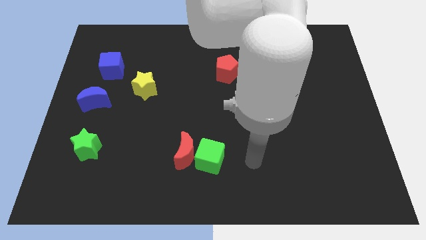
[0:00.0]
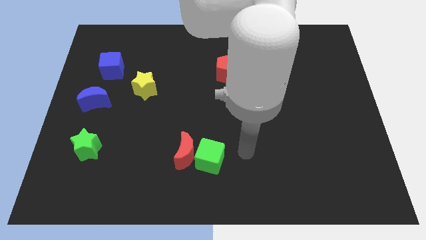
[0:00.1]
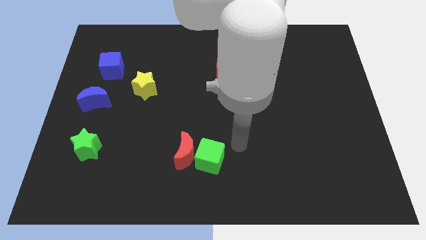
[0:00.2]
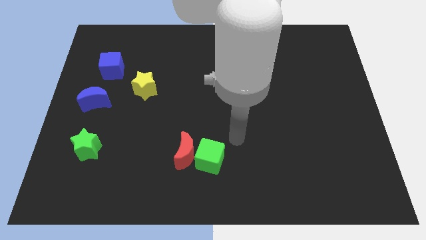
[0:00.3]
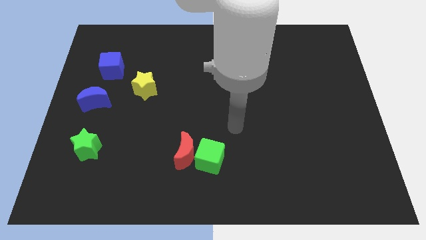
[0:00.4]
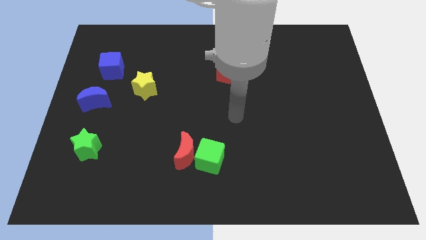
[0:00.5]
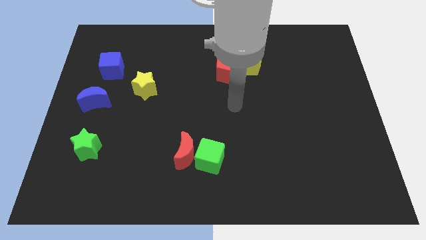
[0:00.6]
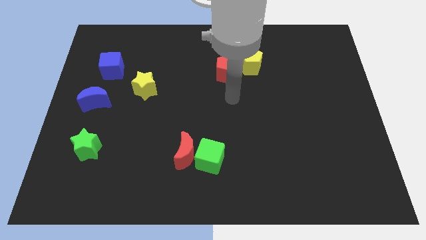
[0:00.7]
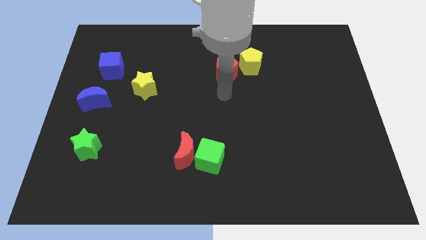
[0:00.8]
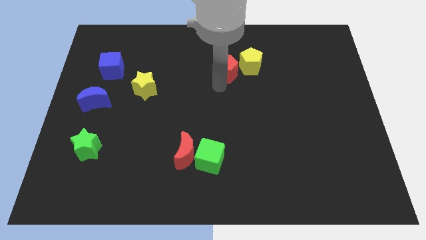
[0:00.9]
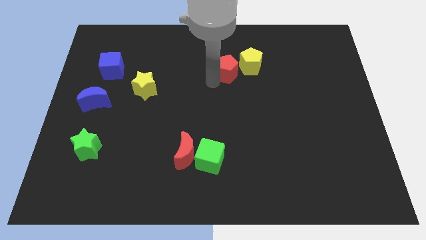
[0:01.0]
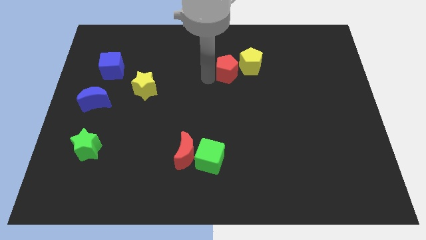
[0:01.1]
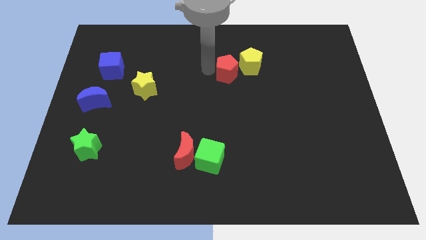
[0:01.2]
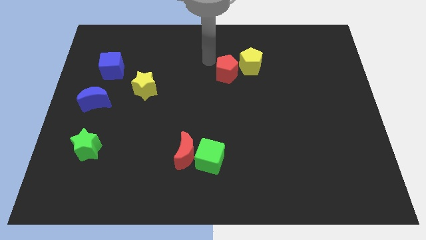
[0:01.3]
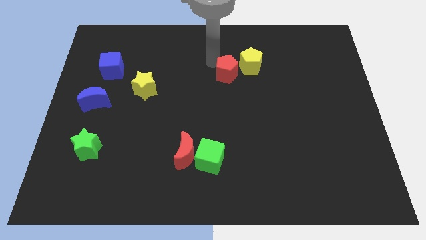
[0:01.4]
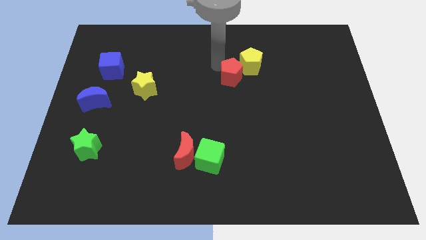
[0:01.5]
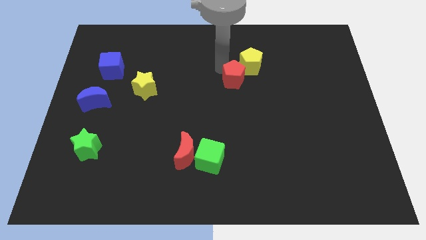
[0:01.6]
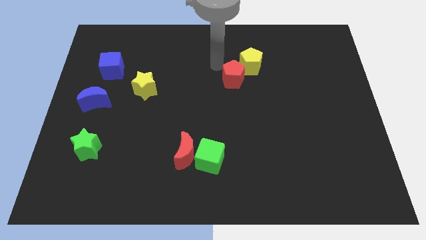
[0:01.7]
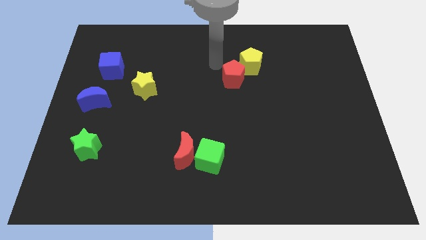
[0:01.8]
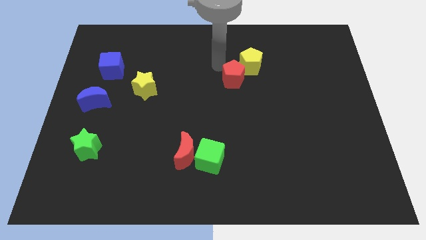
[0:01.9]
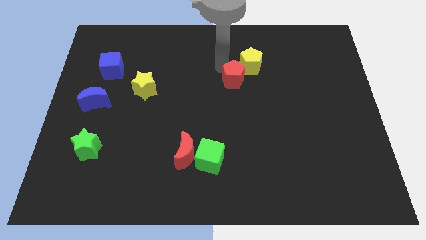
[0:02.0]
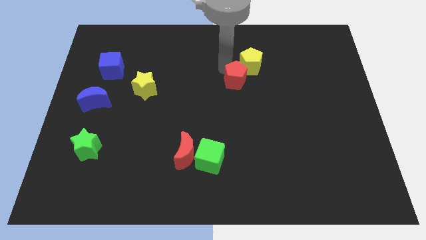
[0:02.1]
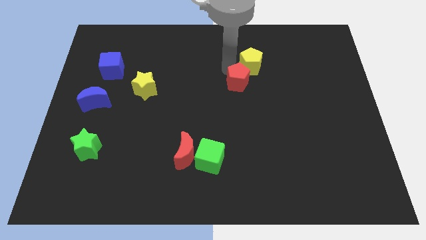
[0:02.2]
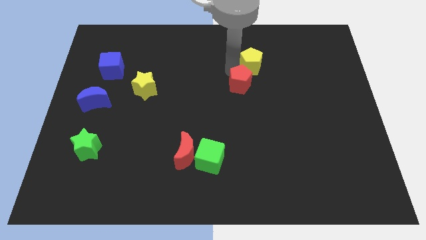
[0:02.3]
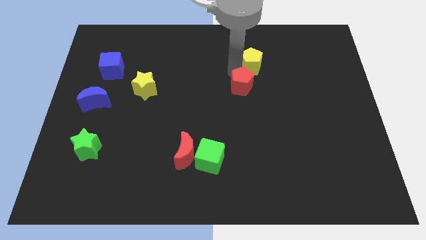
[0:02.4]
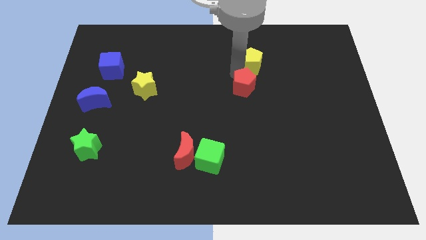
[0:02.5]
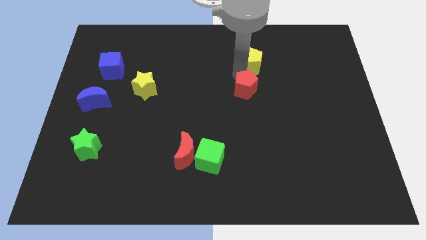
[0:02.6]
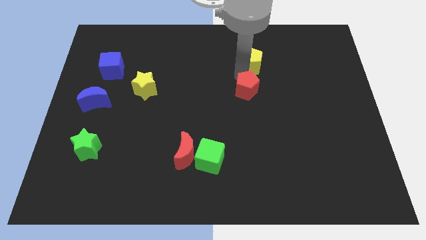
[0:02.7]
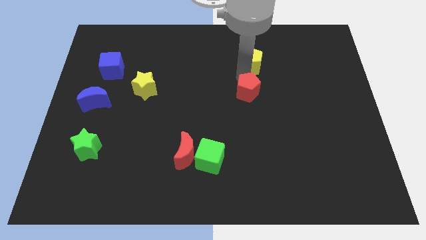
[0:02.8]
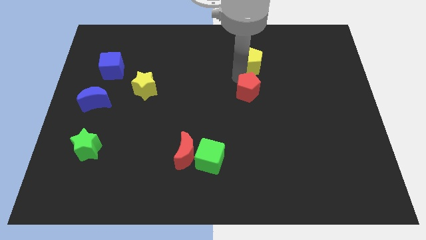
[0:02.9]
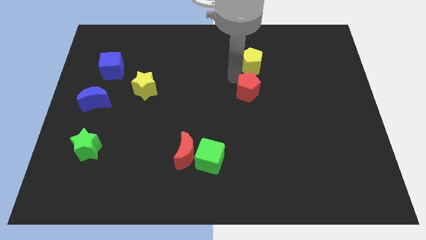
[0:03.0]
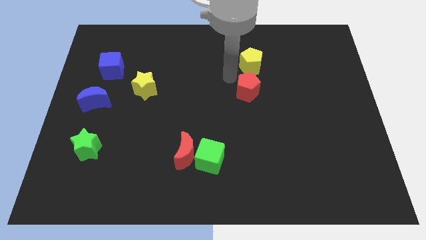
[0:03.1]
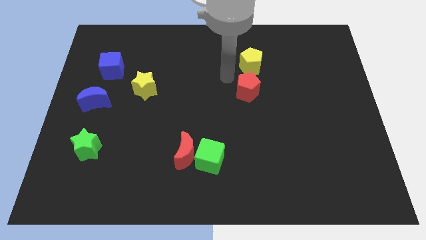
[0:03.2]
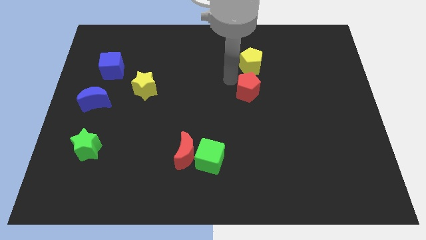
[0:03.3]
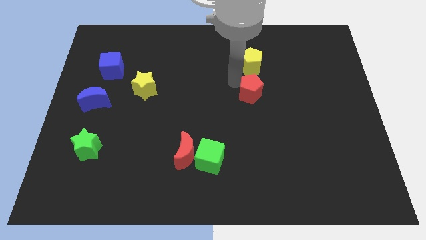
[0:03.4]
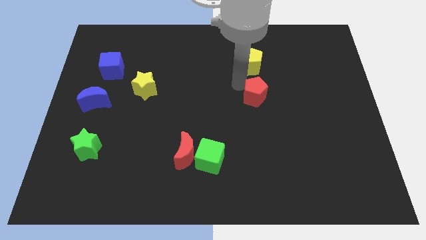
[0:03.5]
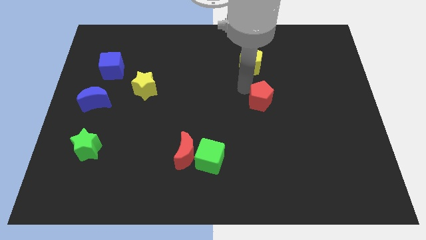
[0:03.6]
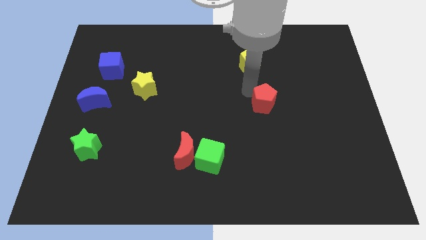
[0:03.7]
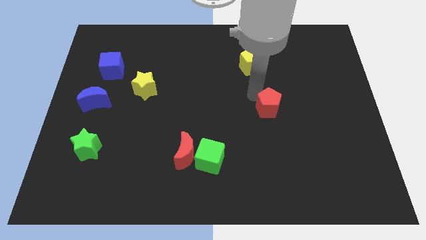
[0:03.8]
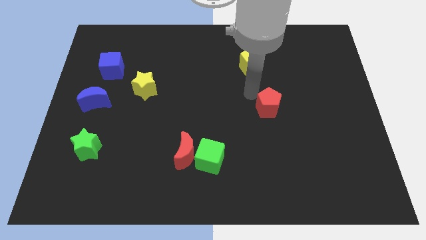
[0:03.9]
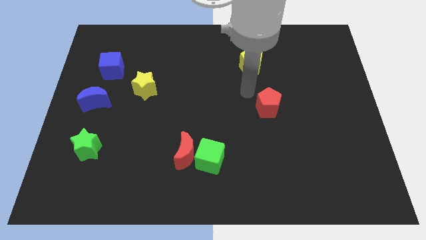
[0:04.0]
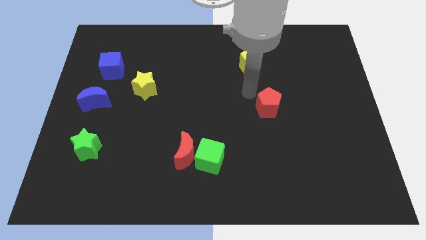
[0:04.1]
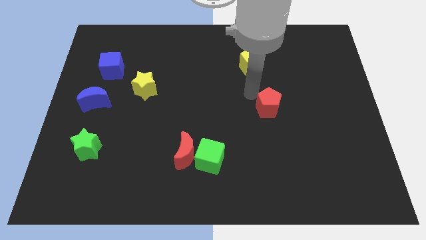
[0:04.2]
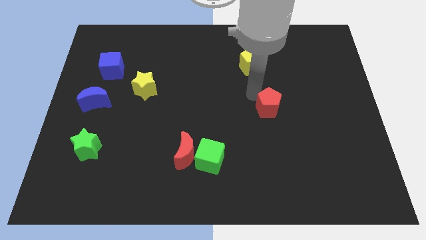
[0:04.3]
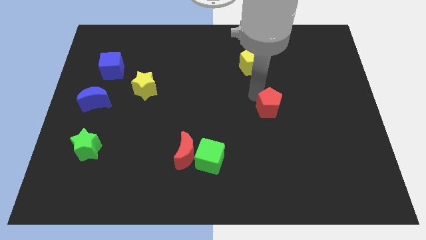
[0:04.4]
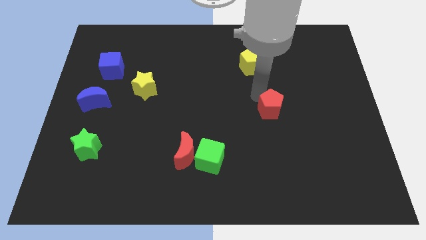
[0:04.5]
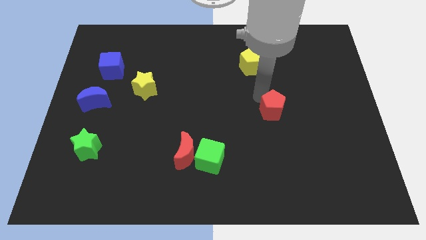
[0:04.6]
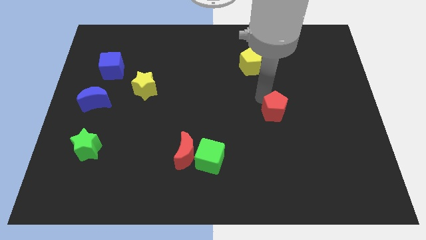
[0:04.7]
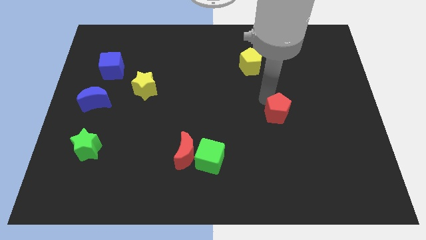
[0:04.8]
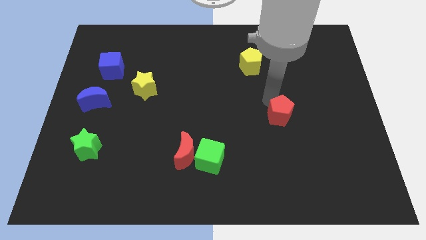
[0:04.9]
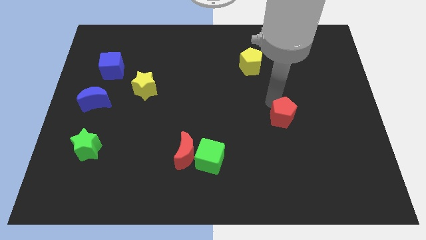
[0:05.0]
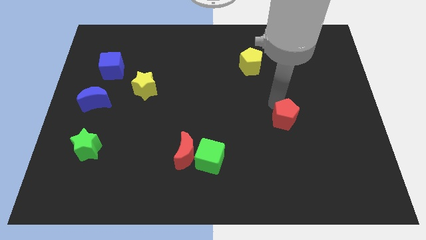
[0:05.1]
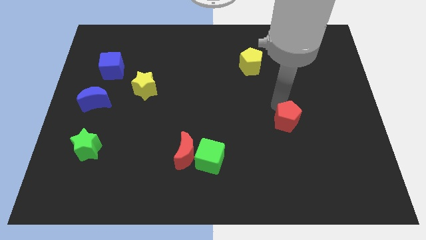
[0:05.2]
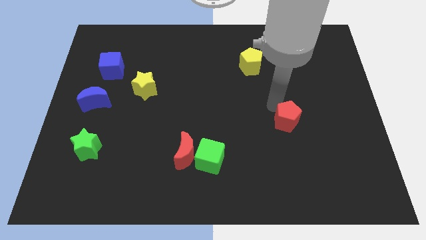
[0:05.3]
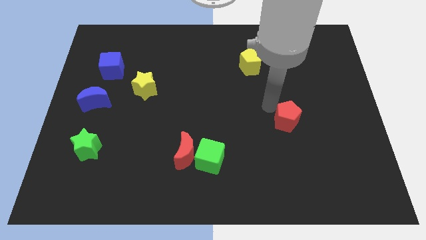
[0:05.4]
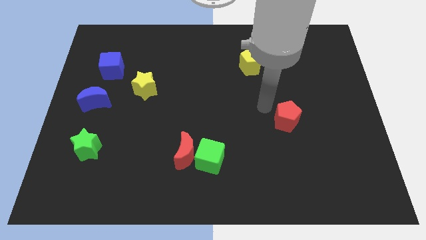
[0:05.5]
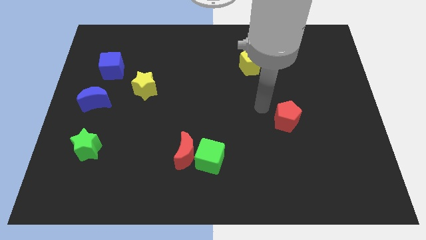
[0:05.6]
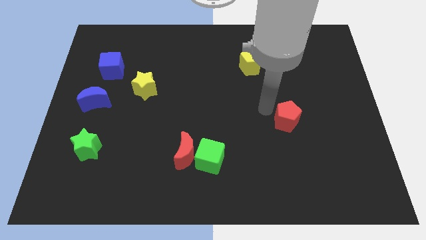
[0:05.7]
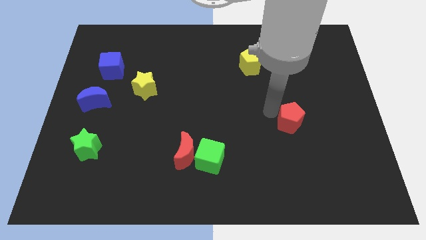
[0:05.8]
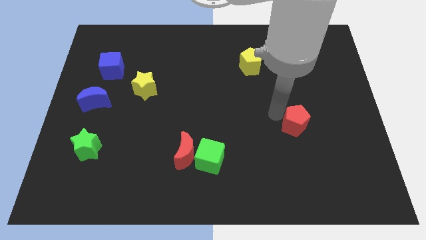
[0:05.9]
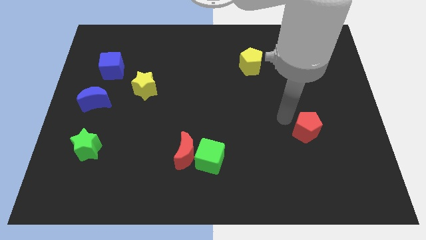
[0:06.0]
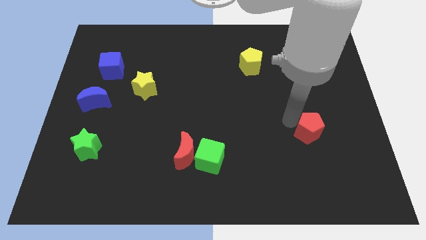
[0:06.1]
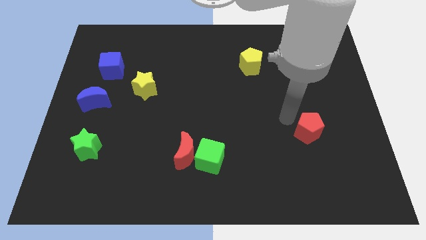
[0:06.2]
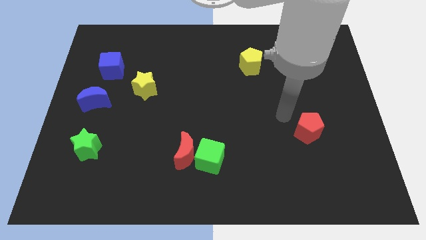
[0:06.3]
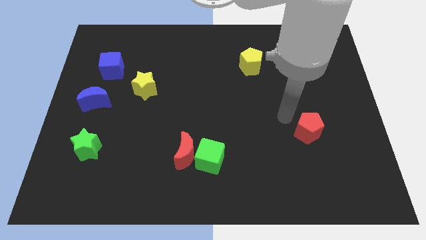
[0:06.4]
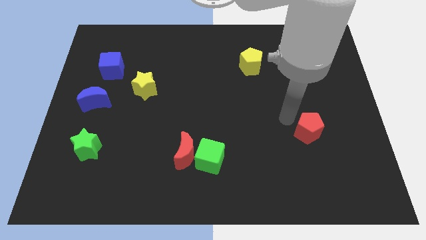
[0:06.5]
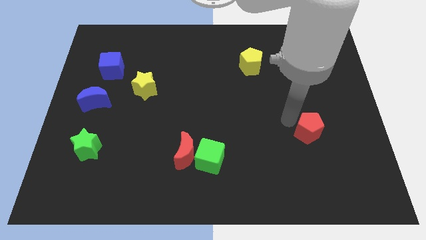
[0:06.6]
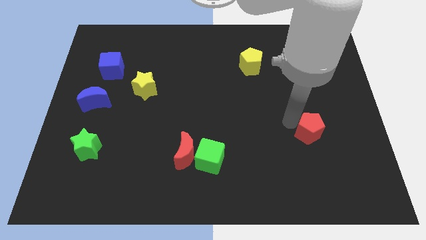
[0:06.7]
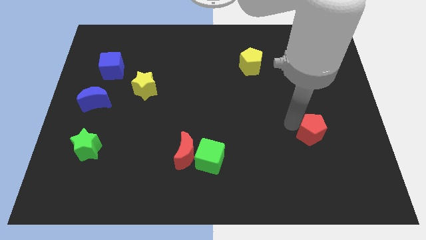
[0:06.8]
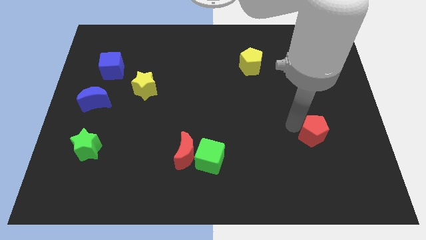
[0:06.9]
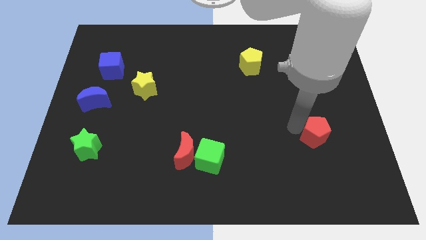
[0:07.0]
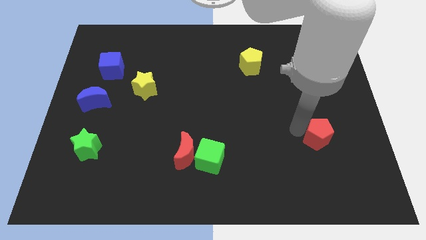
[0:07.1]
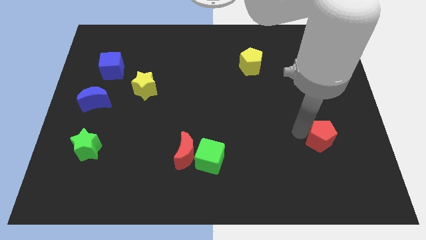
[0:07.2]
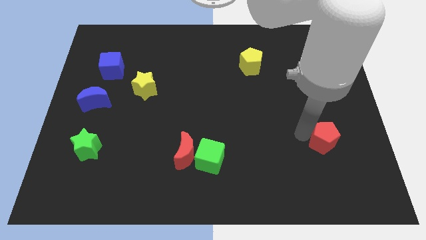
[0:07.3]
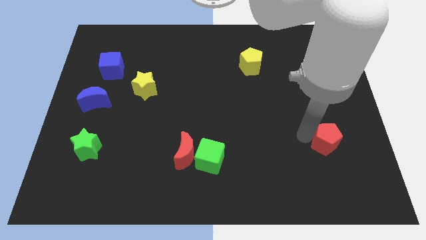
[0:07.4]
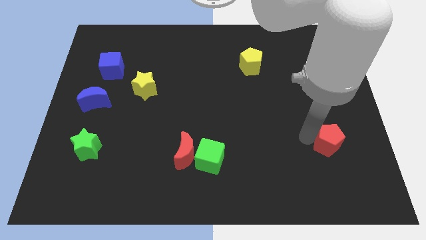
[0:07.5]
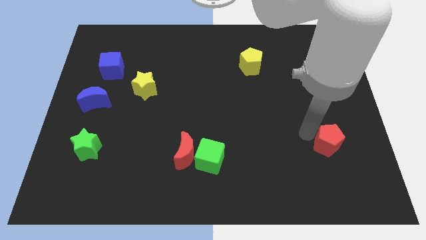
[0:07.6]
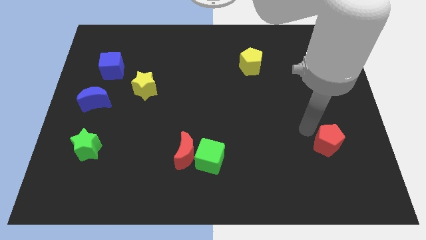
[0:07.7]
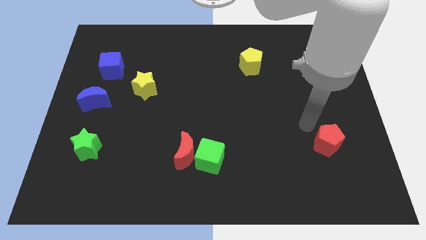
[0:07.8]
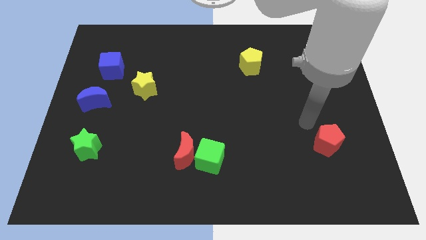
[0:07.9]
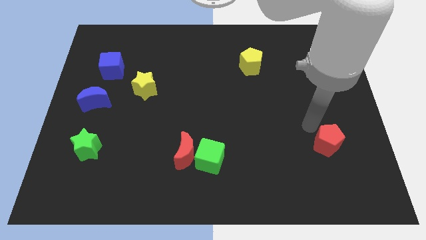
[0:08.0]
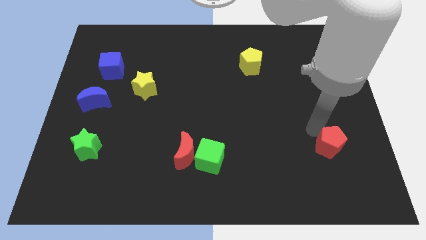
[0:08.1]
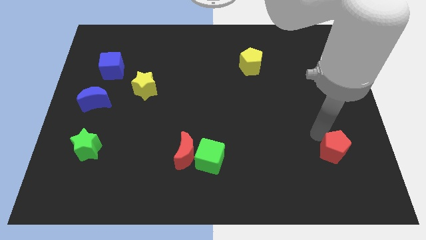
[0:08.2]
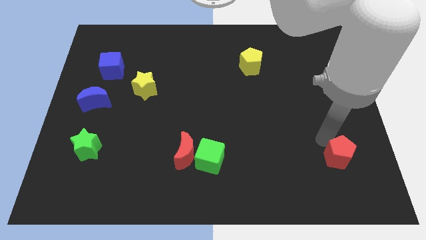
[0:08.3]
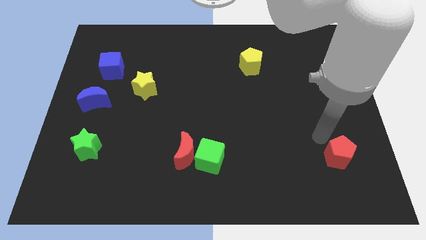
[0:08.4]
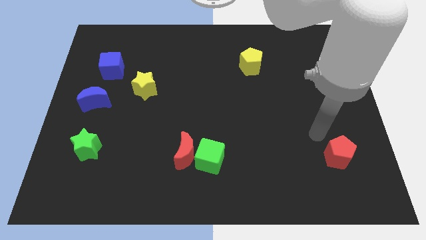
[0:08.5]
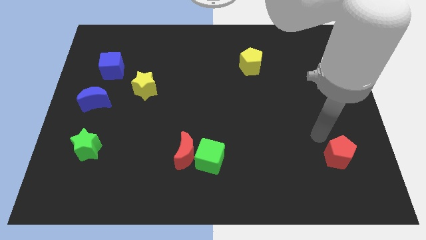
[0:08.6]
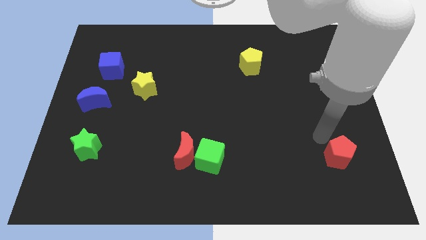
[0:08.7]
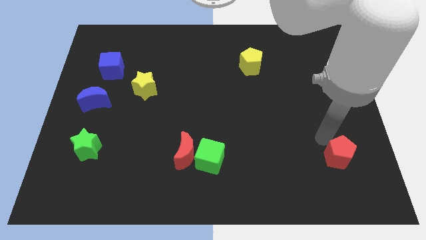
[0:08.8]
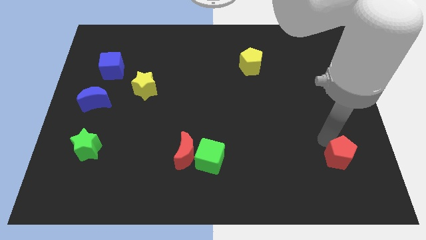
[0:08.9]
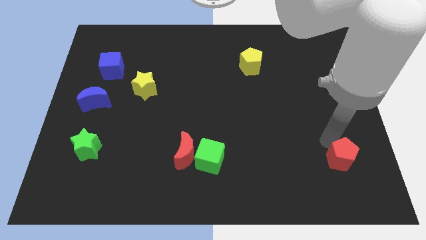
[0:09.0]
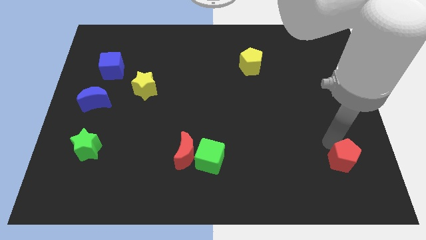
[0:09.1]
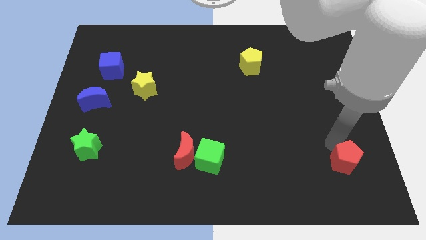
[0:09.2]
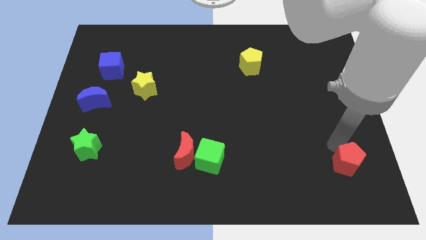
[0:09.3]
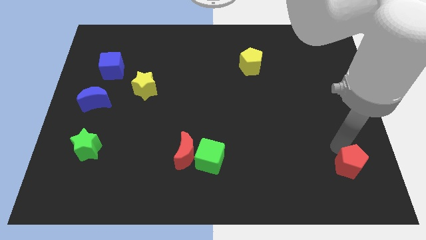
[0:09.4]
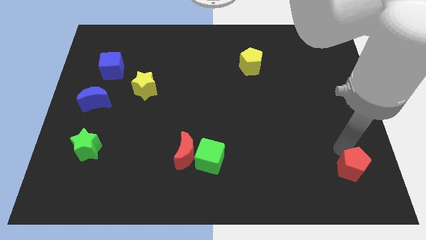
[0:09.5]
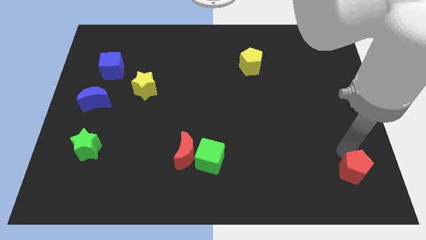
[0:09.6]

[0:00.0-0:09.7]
move the red pentagon to the bottom right
